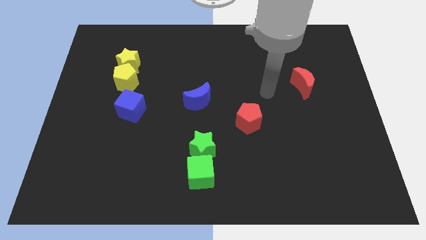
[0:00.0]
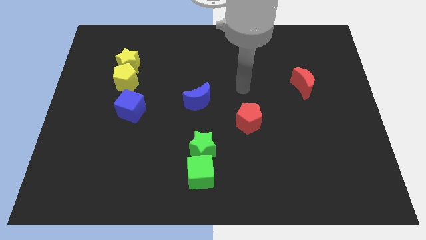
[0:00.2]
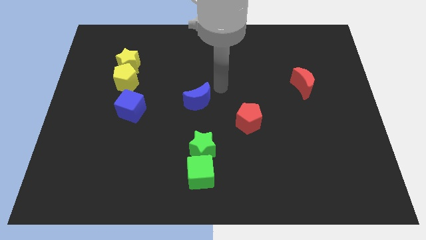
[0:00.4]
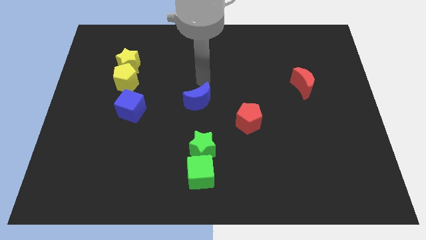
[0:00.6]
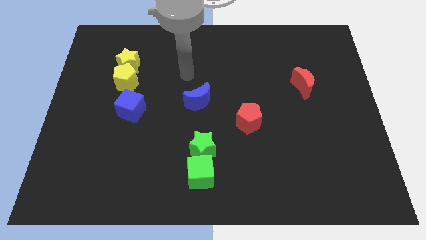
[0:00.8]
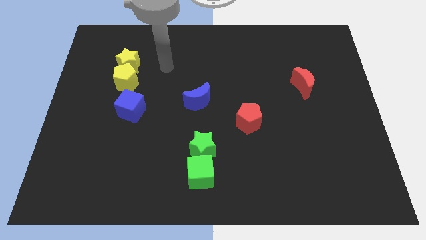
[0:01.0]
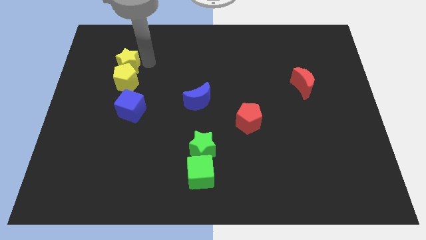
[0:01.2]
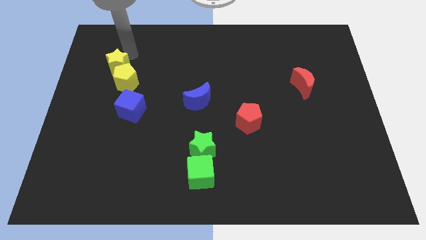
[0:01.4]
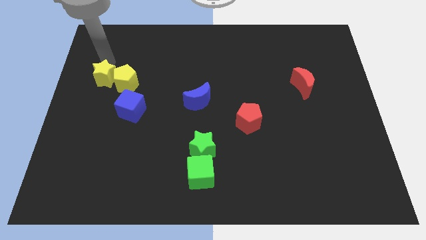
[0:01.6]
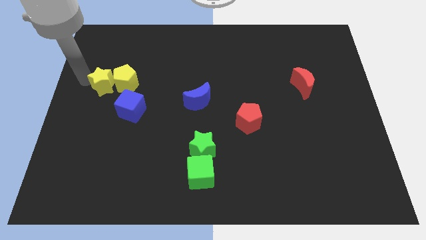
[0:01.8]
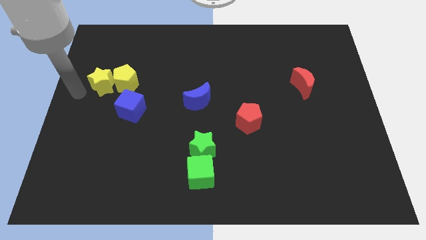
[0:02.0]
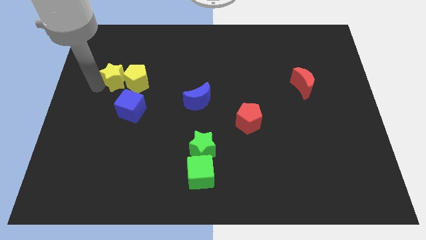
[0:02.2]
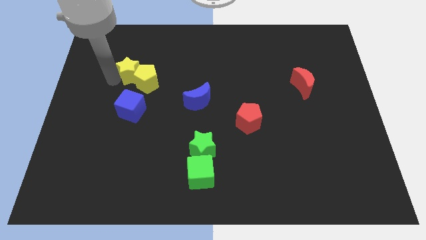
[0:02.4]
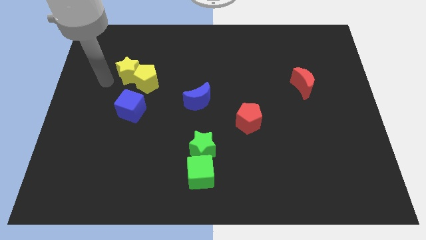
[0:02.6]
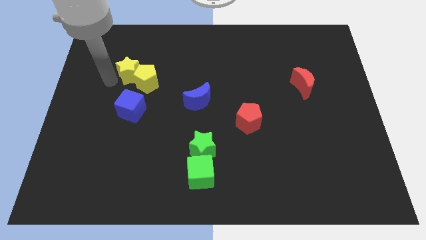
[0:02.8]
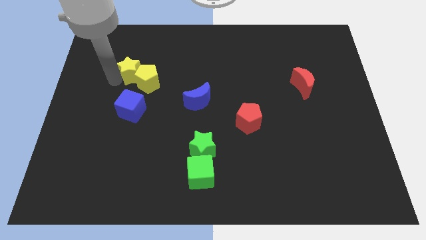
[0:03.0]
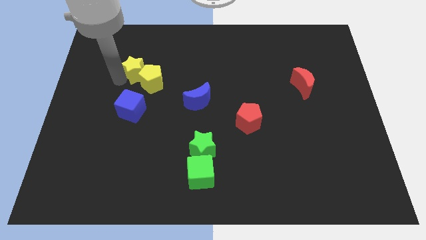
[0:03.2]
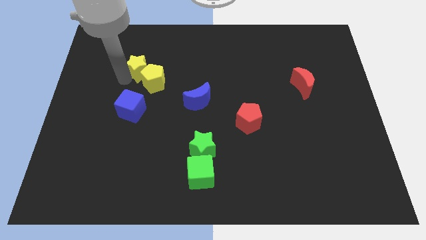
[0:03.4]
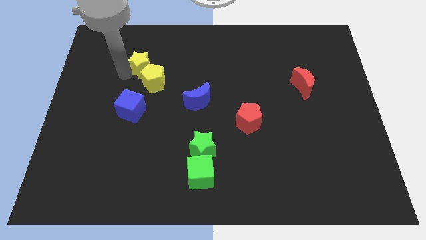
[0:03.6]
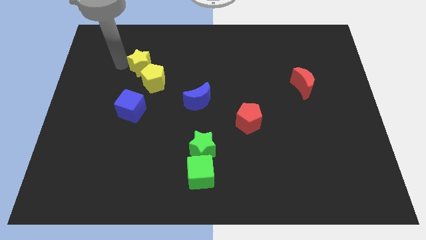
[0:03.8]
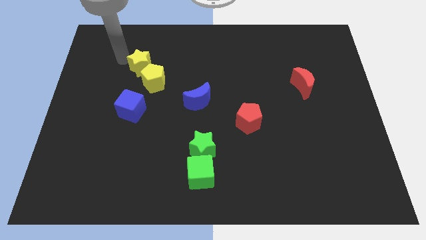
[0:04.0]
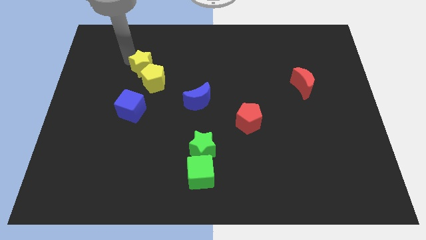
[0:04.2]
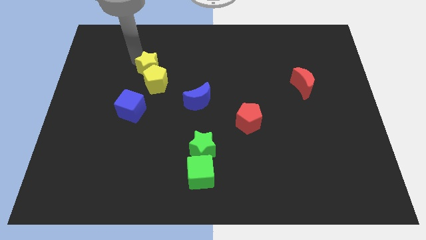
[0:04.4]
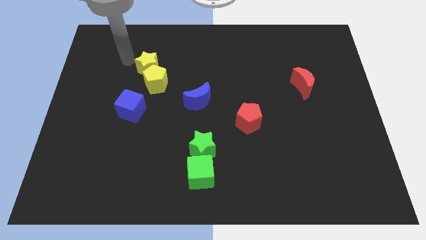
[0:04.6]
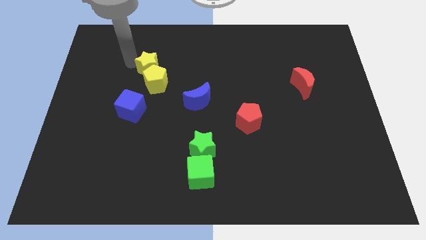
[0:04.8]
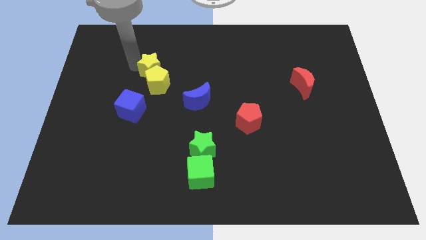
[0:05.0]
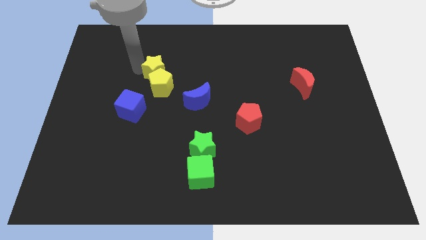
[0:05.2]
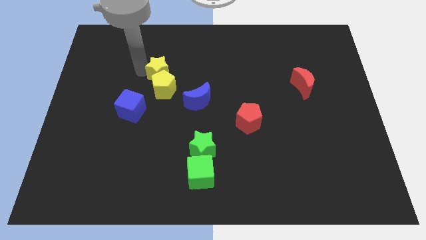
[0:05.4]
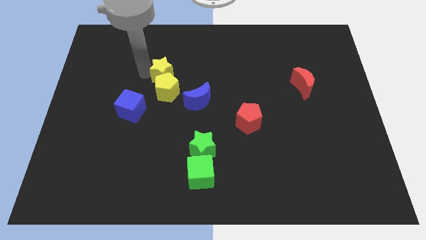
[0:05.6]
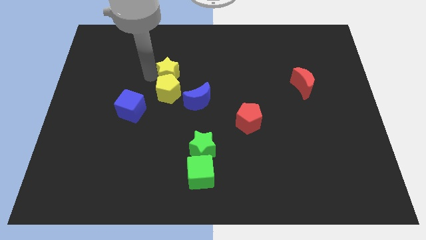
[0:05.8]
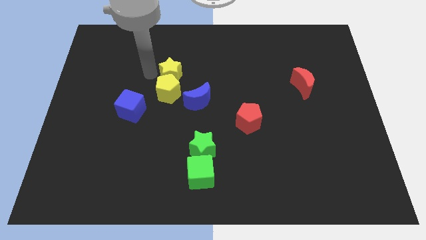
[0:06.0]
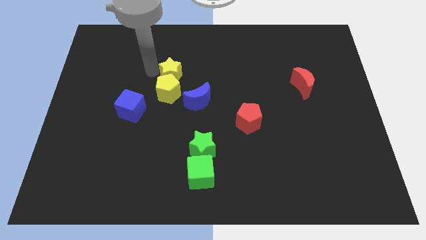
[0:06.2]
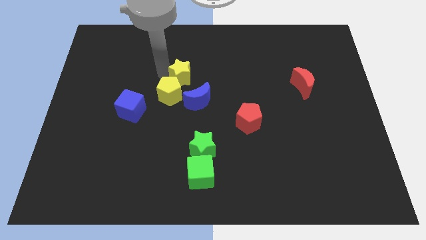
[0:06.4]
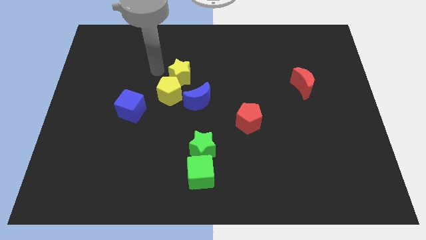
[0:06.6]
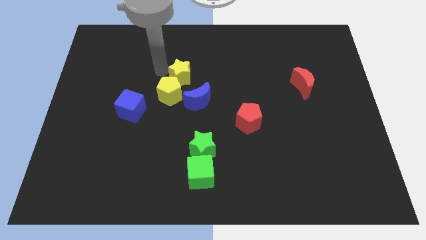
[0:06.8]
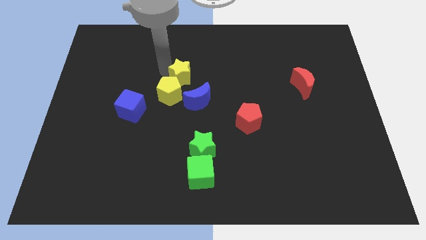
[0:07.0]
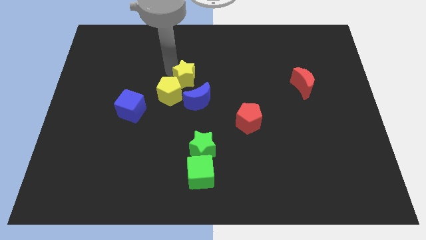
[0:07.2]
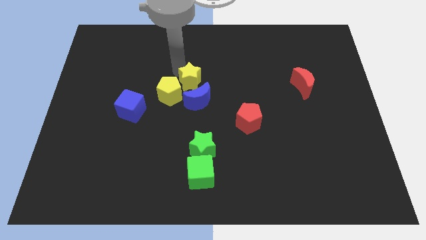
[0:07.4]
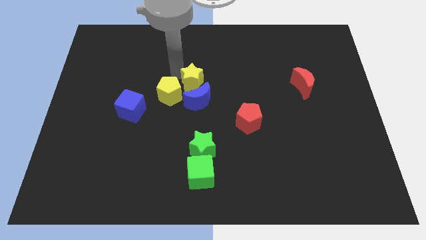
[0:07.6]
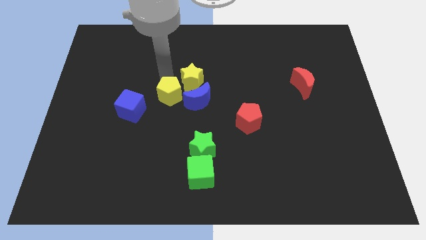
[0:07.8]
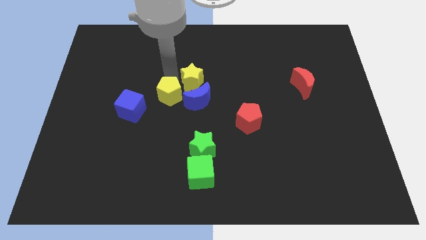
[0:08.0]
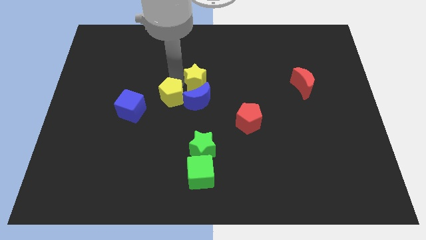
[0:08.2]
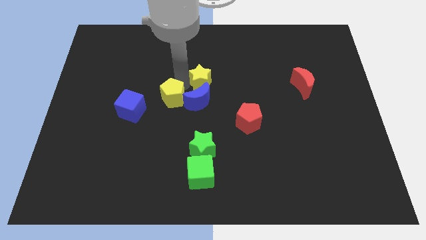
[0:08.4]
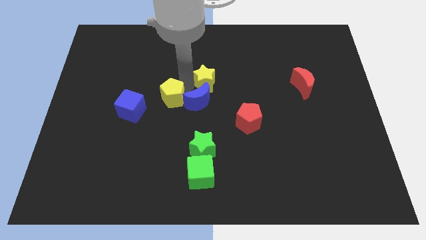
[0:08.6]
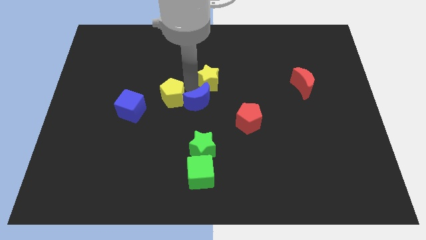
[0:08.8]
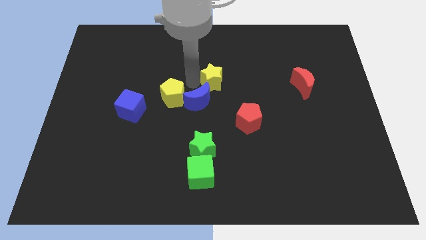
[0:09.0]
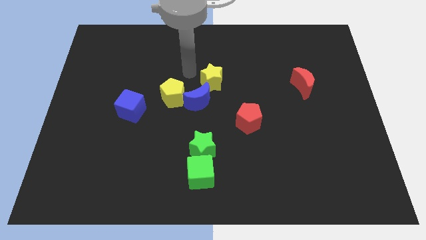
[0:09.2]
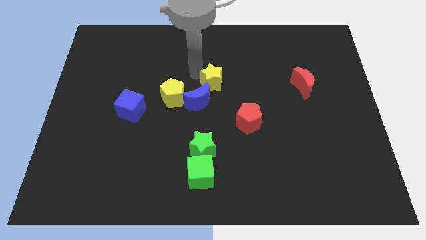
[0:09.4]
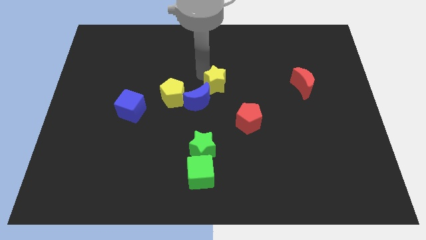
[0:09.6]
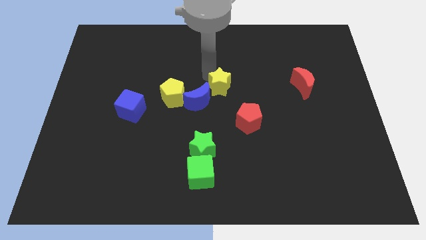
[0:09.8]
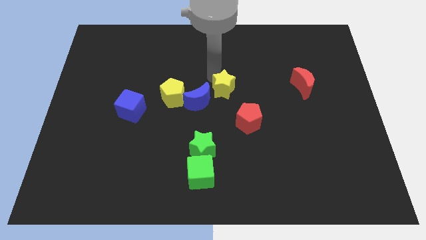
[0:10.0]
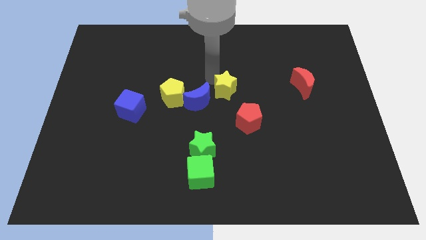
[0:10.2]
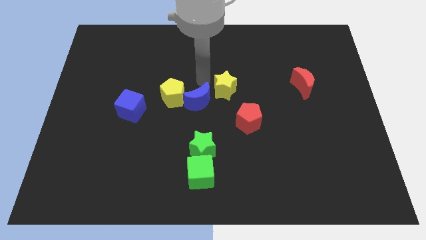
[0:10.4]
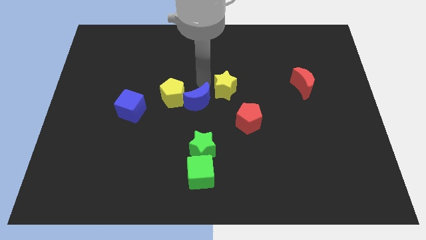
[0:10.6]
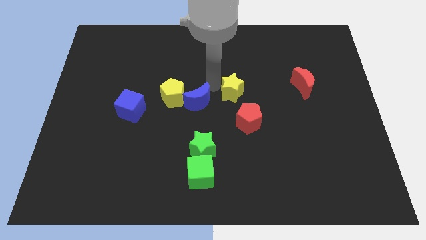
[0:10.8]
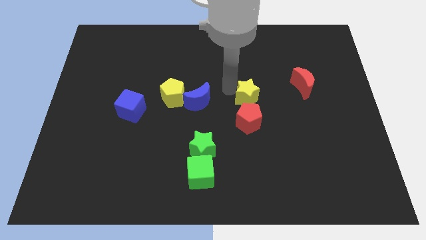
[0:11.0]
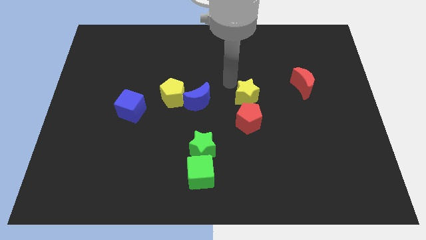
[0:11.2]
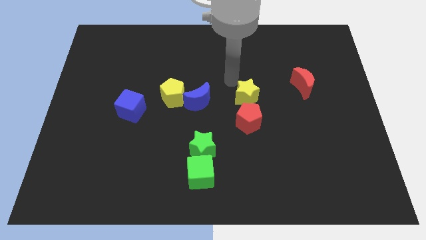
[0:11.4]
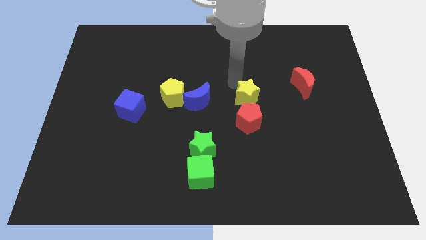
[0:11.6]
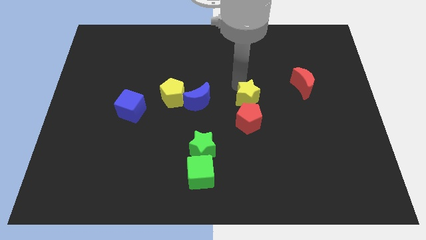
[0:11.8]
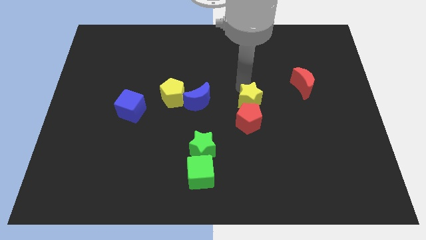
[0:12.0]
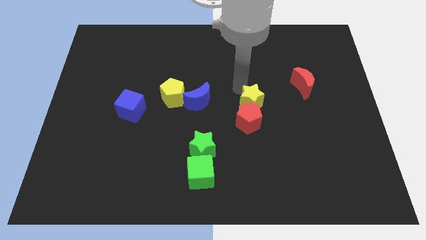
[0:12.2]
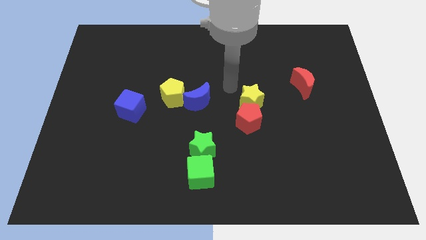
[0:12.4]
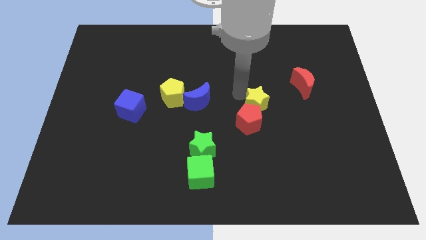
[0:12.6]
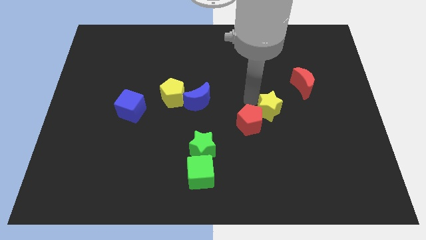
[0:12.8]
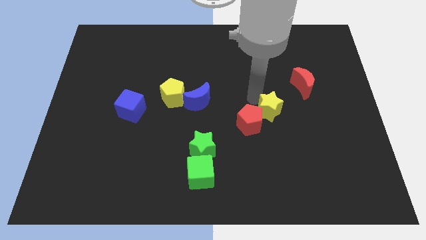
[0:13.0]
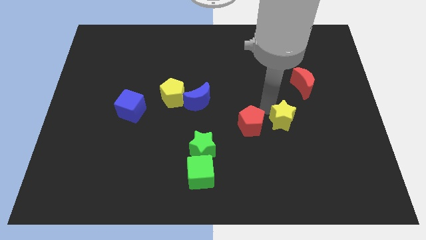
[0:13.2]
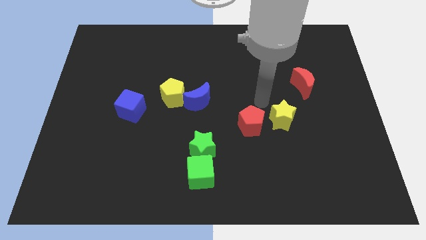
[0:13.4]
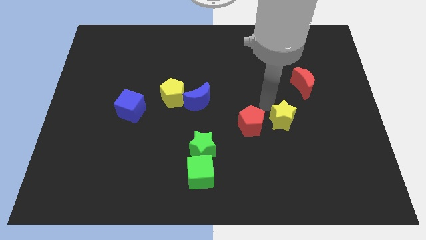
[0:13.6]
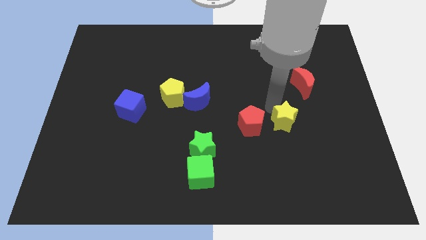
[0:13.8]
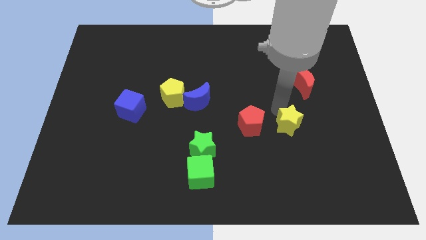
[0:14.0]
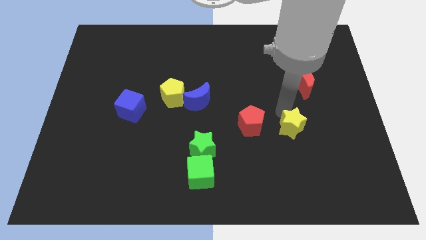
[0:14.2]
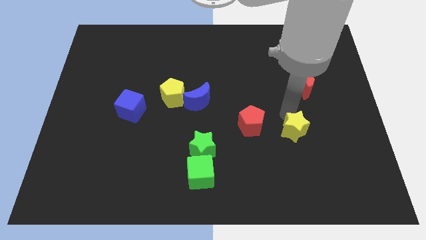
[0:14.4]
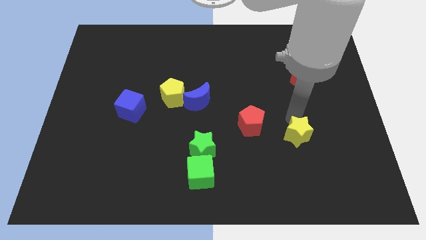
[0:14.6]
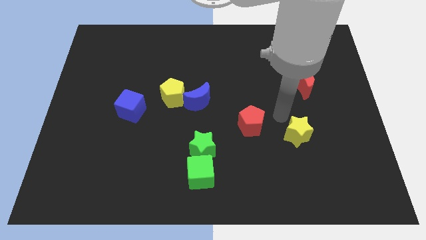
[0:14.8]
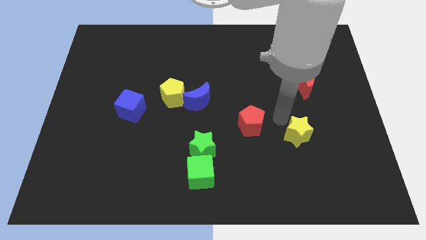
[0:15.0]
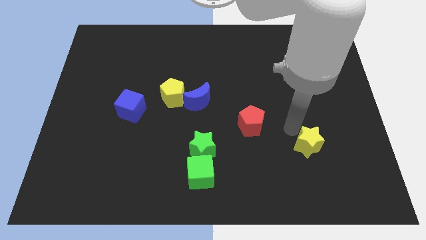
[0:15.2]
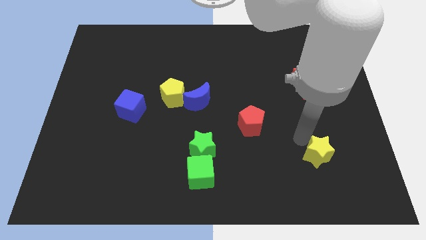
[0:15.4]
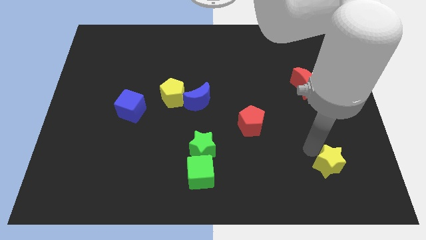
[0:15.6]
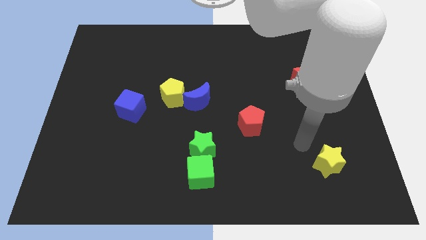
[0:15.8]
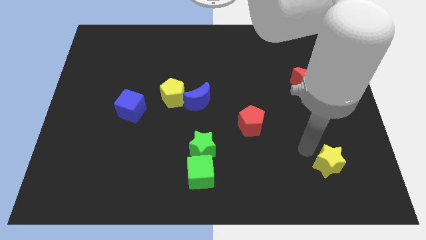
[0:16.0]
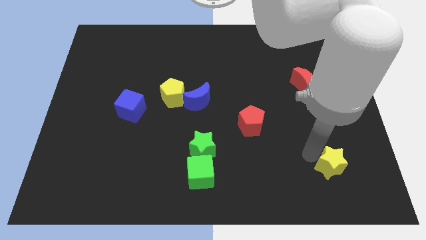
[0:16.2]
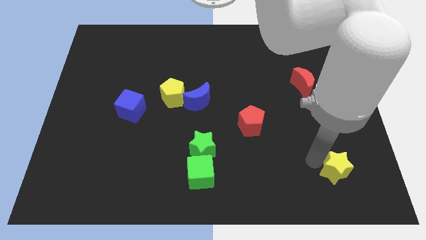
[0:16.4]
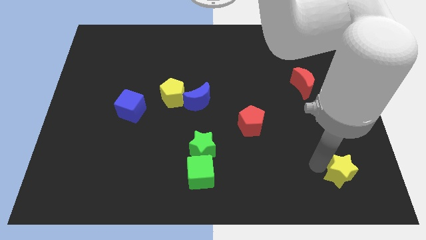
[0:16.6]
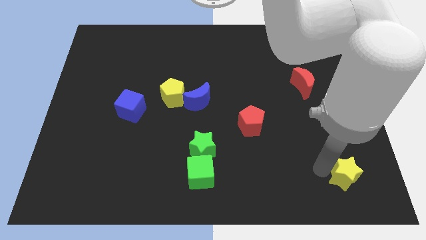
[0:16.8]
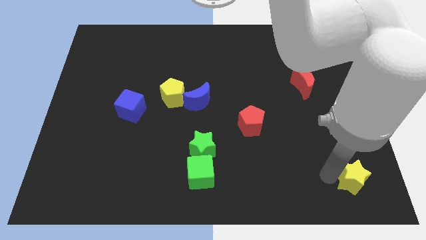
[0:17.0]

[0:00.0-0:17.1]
put the yellow star to the bottom right of the board
